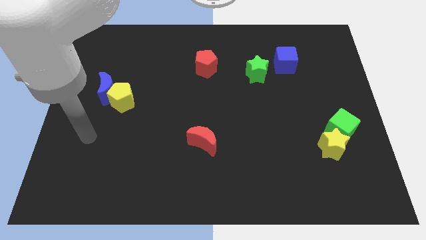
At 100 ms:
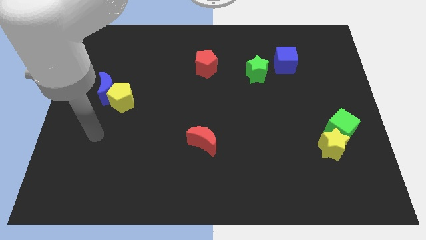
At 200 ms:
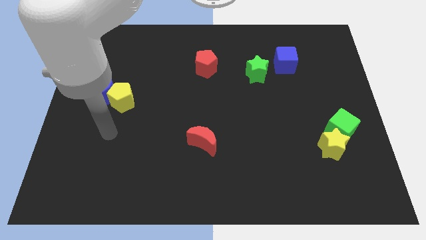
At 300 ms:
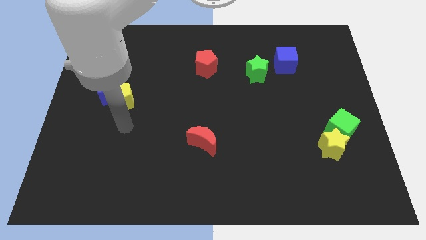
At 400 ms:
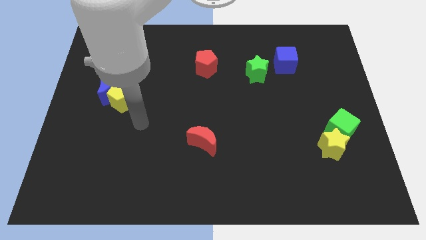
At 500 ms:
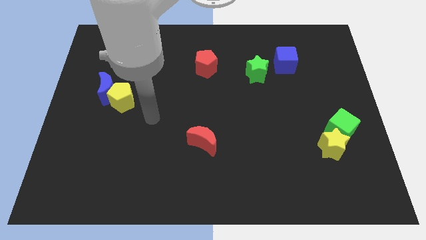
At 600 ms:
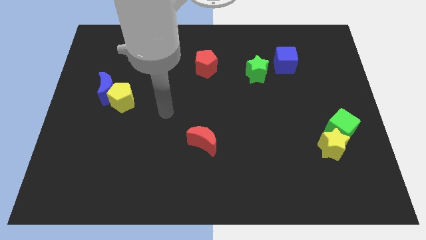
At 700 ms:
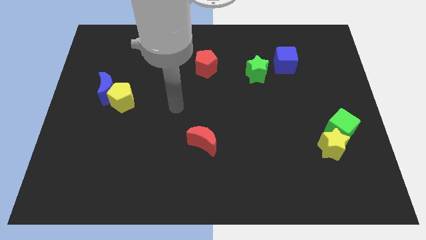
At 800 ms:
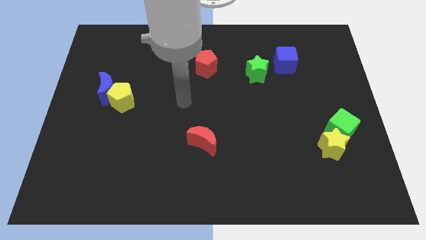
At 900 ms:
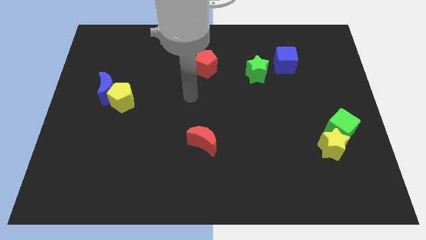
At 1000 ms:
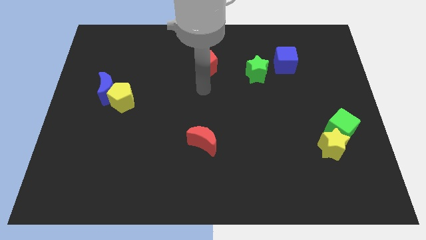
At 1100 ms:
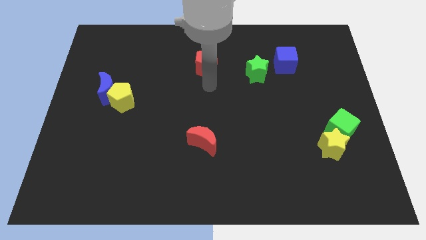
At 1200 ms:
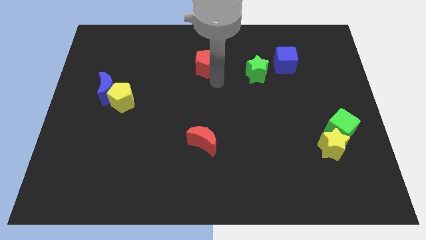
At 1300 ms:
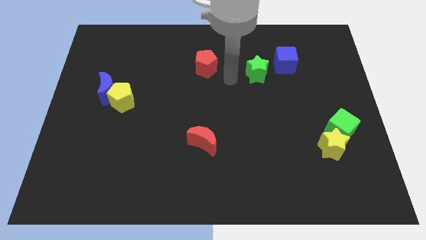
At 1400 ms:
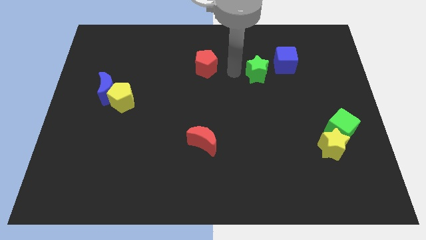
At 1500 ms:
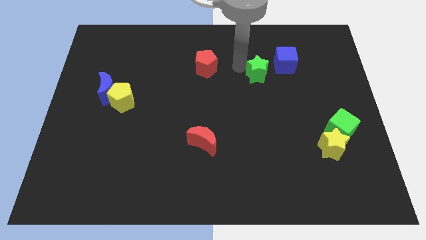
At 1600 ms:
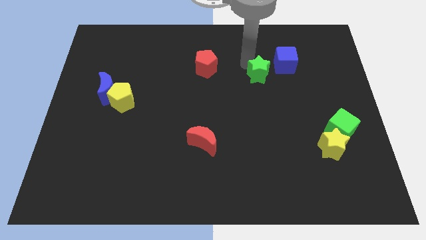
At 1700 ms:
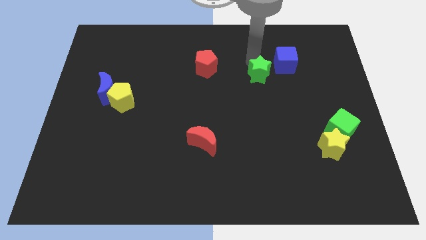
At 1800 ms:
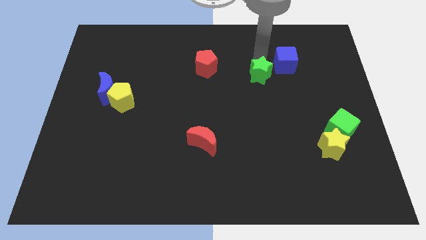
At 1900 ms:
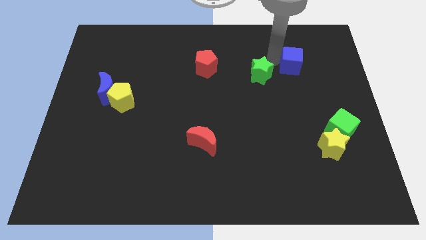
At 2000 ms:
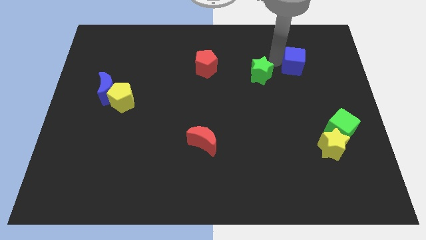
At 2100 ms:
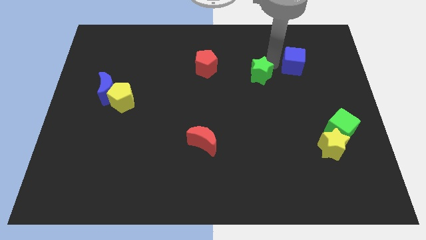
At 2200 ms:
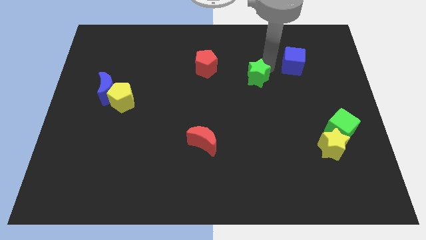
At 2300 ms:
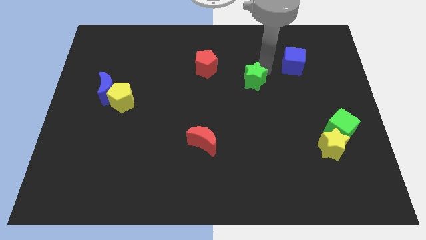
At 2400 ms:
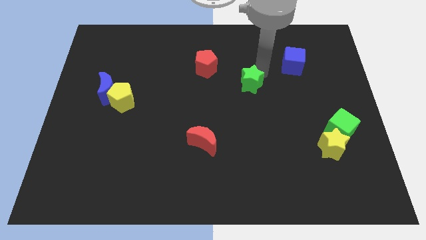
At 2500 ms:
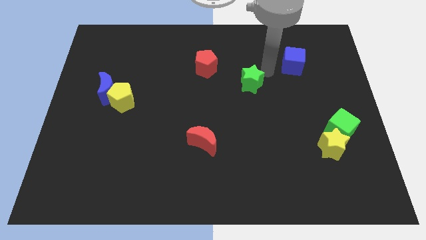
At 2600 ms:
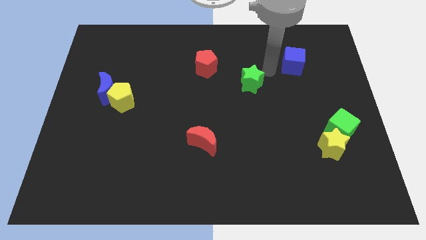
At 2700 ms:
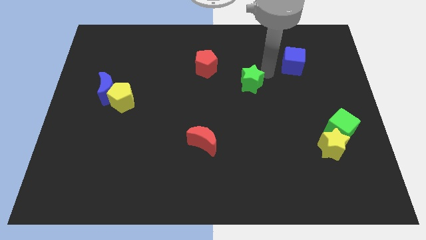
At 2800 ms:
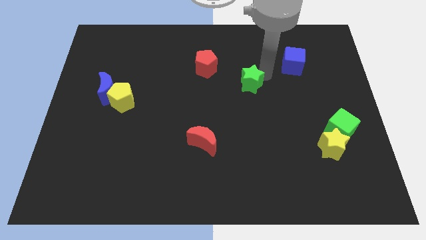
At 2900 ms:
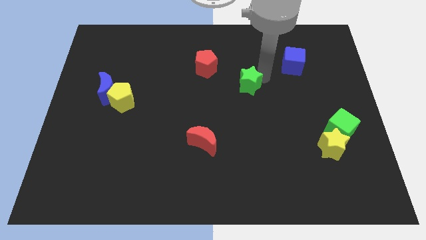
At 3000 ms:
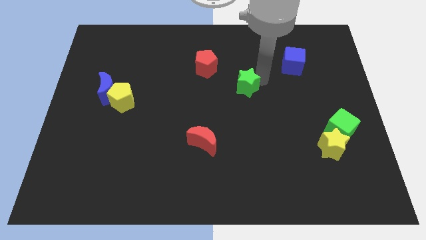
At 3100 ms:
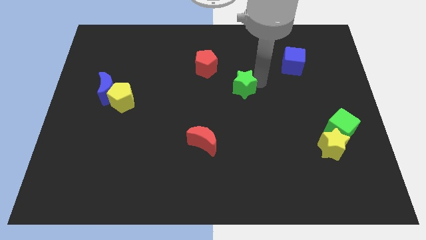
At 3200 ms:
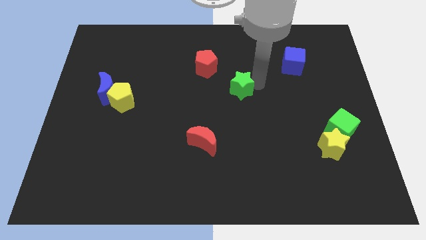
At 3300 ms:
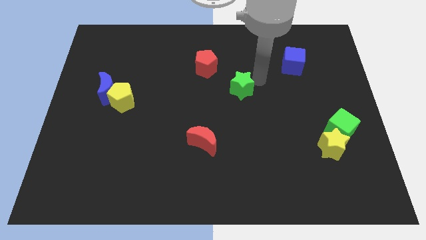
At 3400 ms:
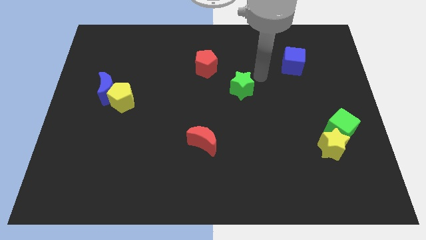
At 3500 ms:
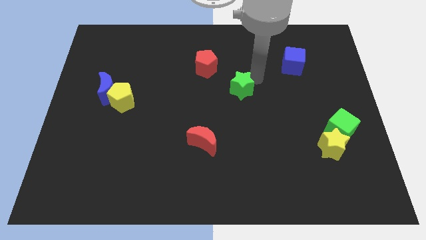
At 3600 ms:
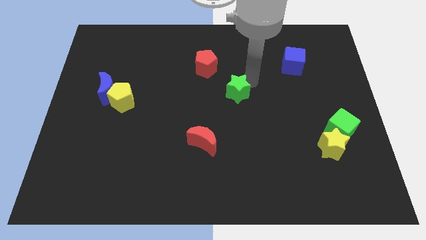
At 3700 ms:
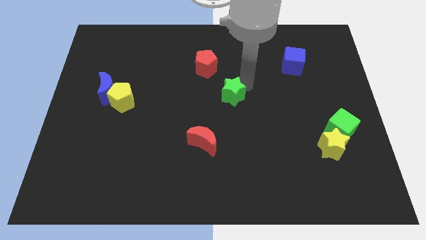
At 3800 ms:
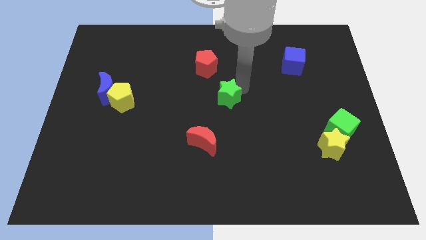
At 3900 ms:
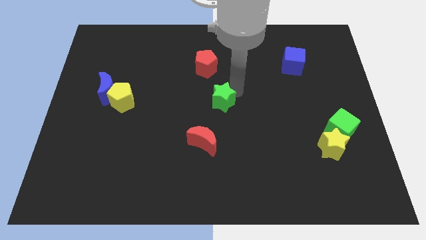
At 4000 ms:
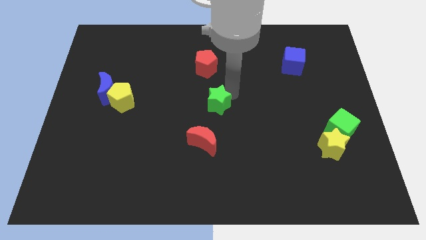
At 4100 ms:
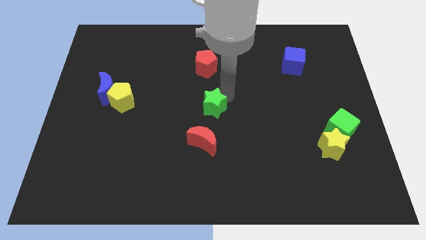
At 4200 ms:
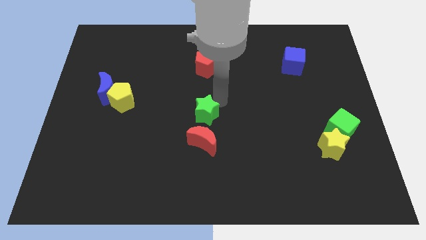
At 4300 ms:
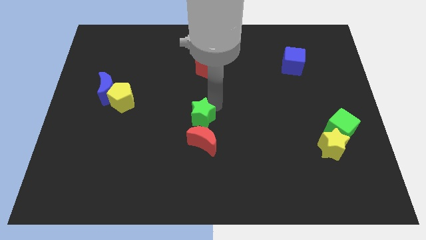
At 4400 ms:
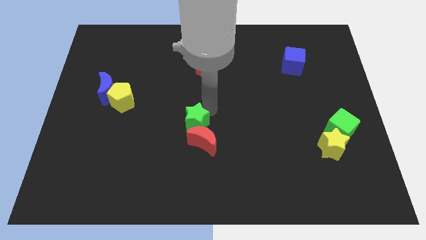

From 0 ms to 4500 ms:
slide the green star diagonally down and to the left

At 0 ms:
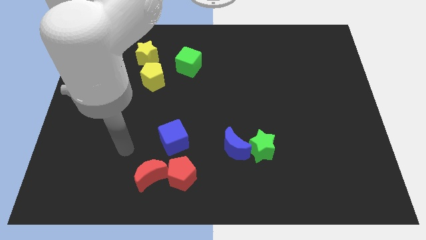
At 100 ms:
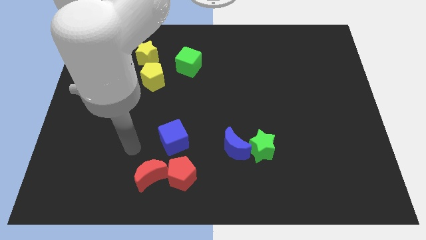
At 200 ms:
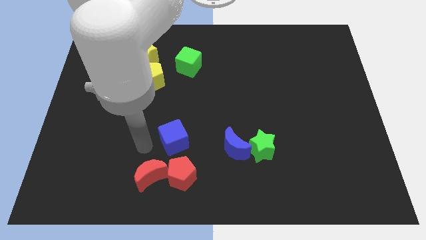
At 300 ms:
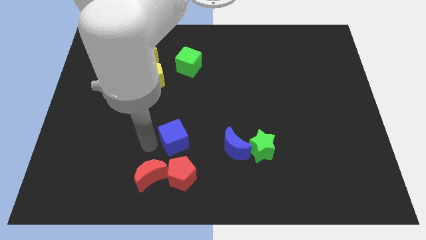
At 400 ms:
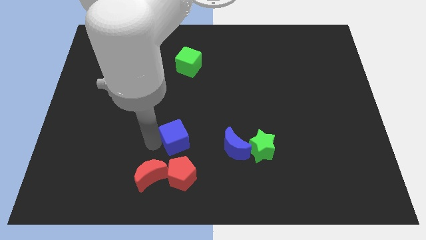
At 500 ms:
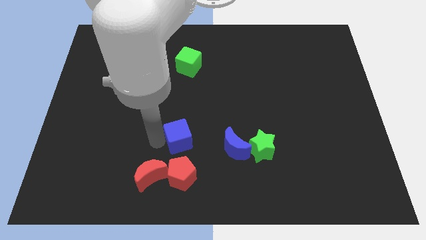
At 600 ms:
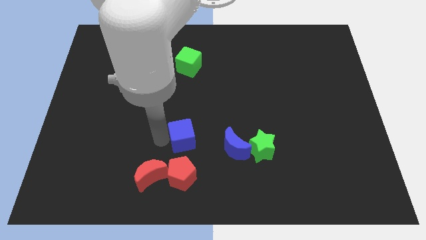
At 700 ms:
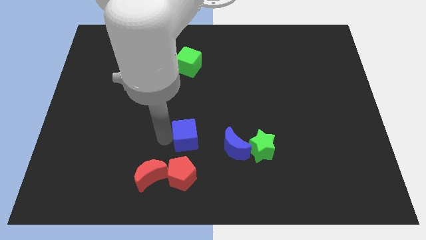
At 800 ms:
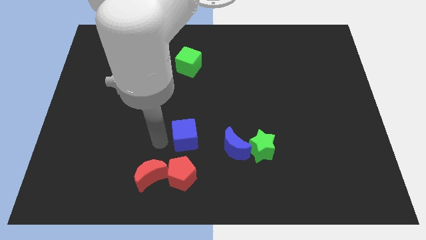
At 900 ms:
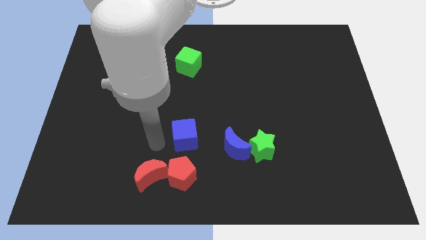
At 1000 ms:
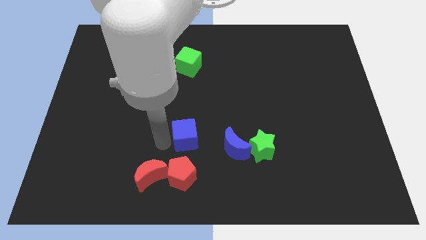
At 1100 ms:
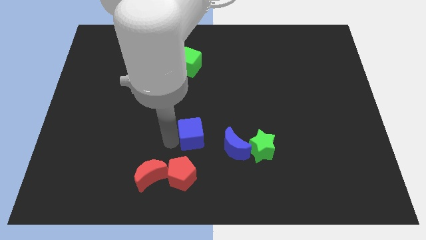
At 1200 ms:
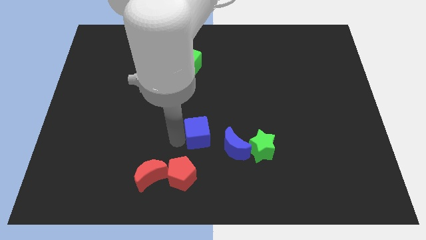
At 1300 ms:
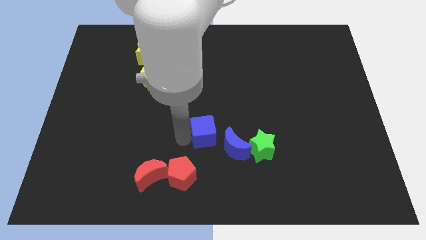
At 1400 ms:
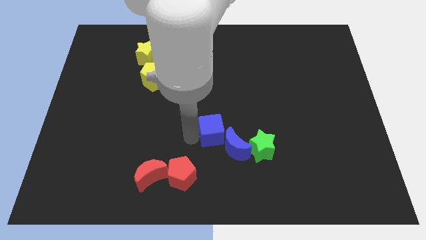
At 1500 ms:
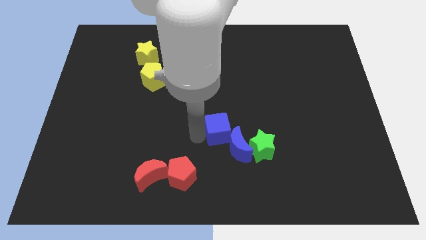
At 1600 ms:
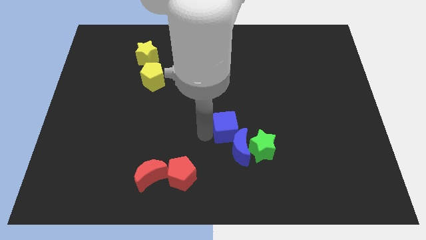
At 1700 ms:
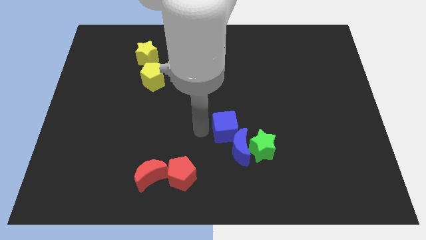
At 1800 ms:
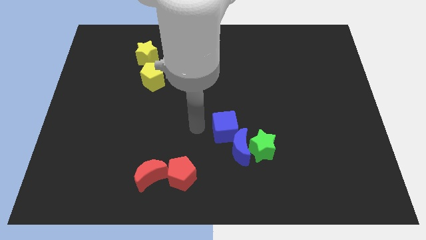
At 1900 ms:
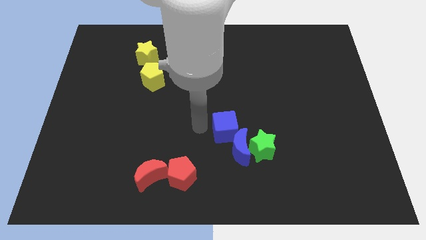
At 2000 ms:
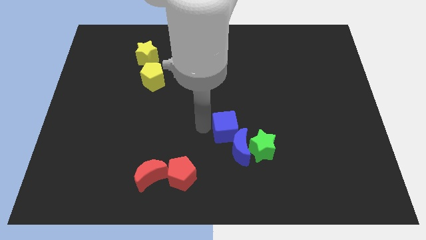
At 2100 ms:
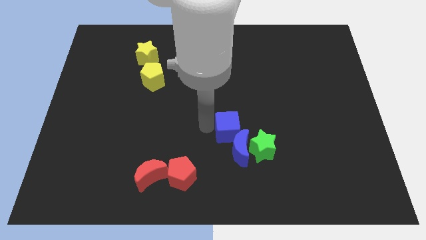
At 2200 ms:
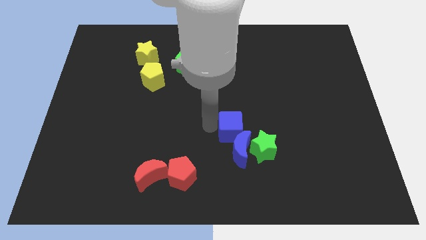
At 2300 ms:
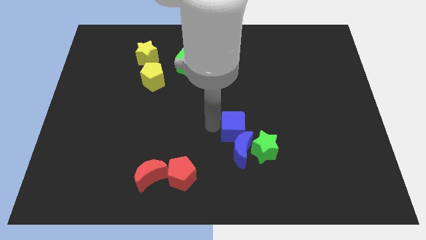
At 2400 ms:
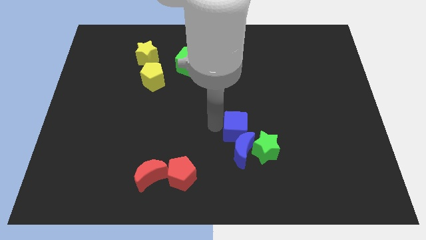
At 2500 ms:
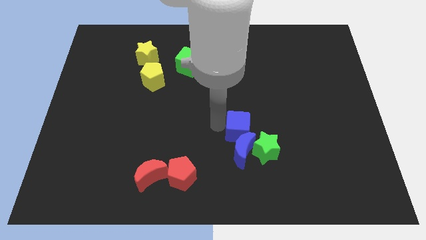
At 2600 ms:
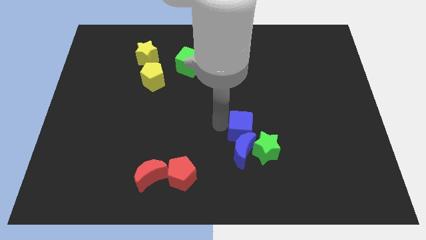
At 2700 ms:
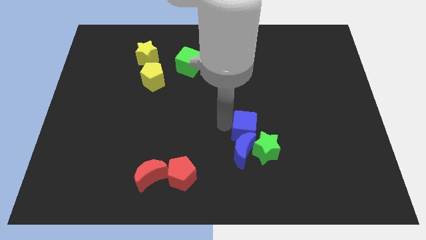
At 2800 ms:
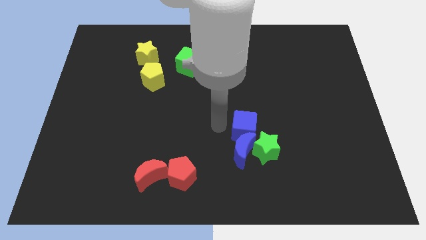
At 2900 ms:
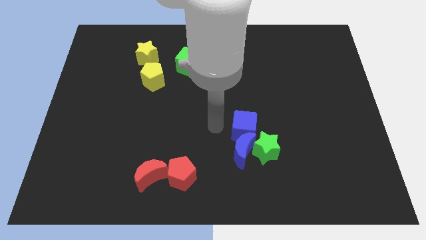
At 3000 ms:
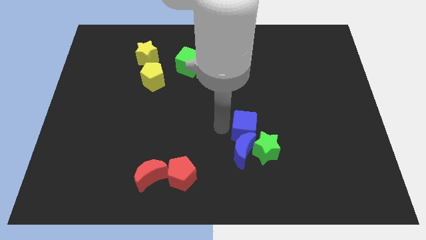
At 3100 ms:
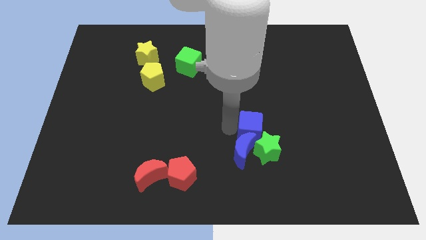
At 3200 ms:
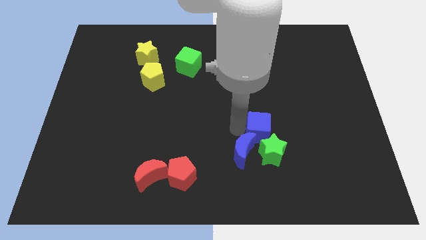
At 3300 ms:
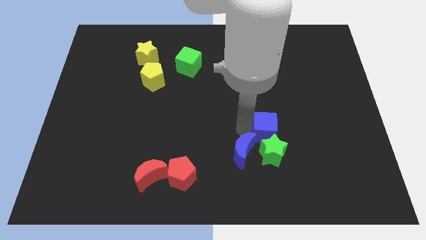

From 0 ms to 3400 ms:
push the blue cube to the right

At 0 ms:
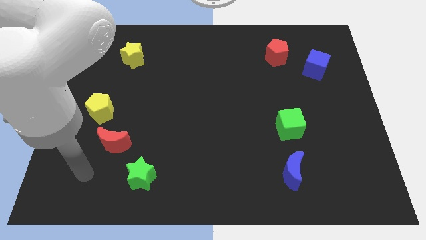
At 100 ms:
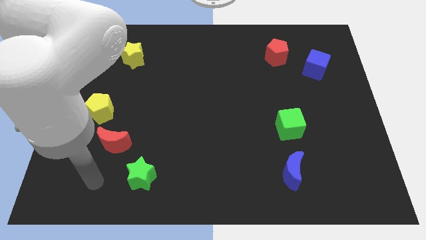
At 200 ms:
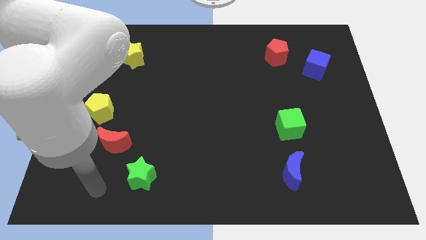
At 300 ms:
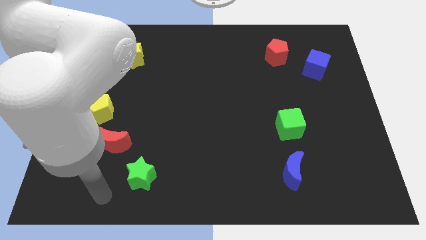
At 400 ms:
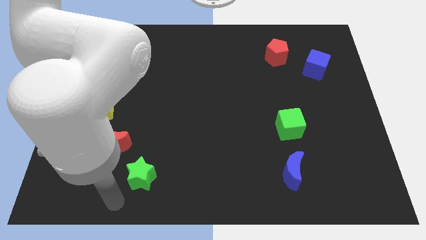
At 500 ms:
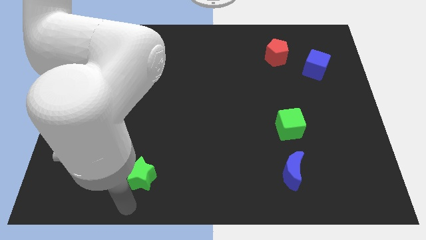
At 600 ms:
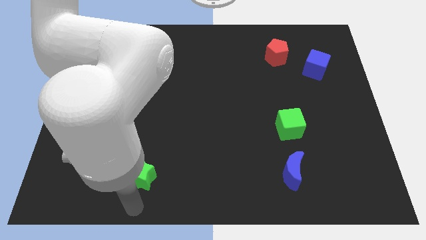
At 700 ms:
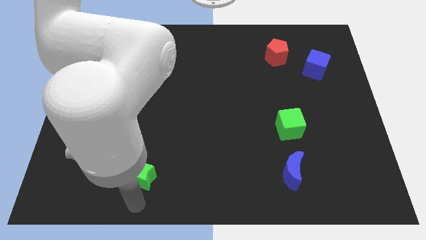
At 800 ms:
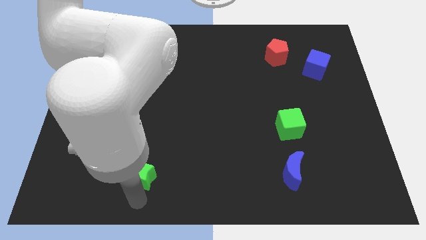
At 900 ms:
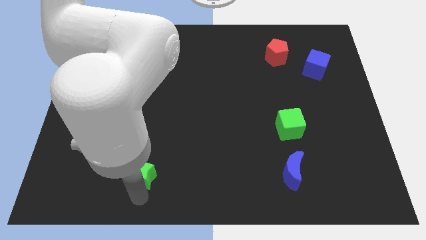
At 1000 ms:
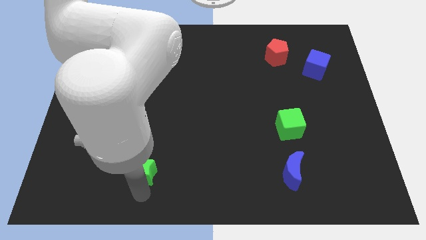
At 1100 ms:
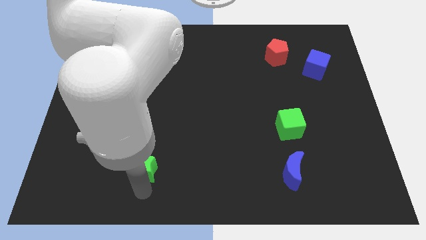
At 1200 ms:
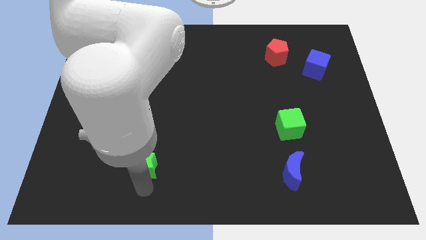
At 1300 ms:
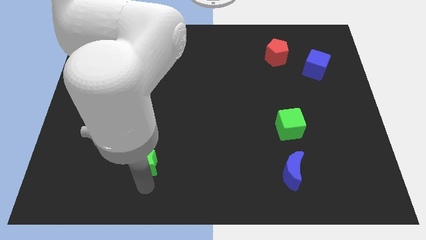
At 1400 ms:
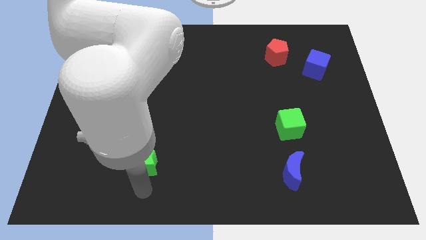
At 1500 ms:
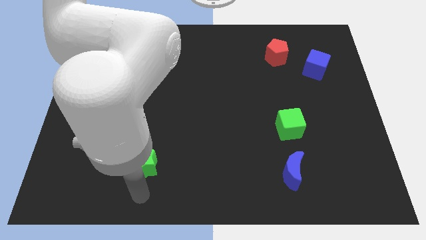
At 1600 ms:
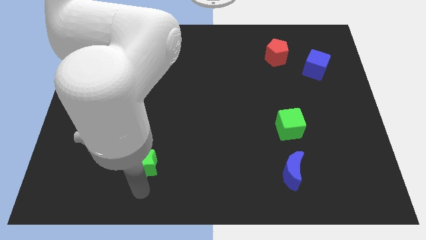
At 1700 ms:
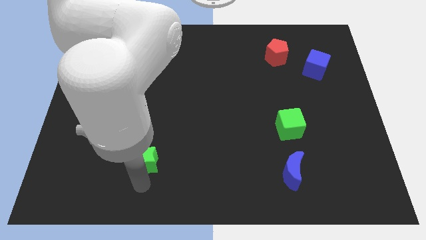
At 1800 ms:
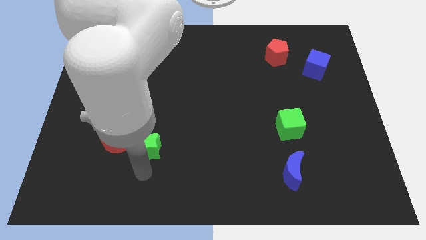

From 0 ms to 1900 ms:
move the green star somewhat up
